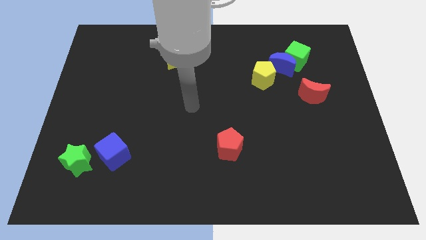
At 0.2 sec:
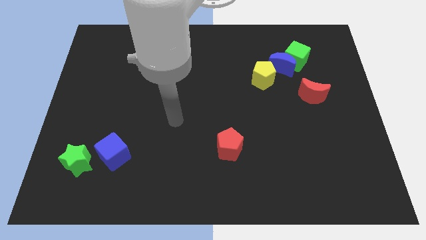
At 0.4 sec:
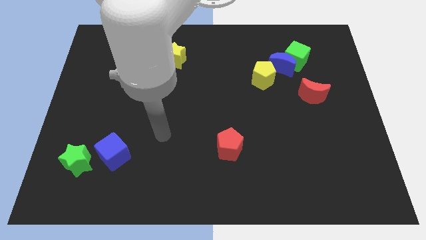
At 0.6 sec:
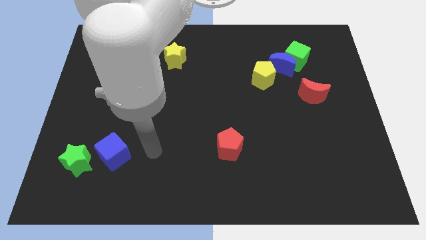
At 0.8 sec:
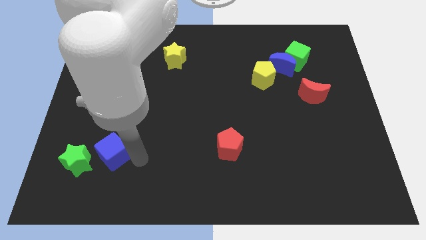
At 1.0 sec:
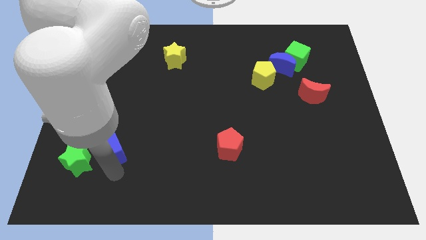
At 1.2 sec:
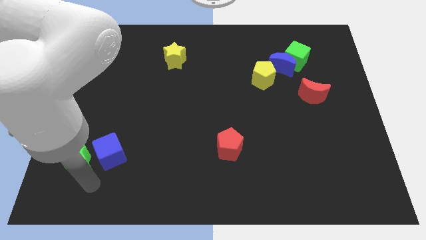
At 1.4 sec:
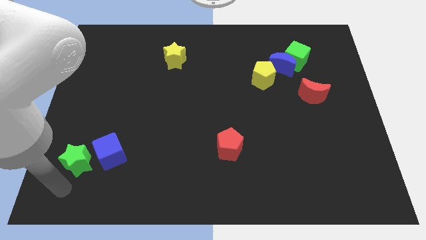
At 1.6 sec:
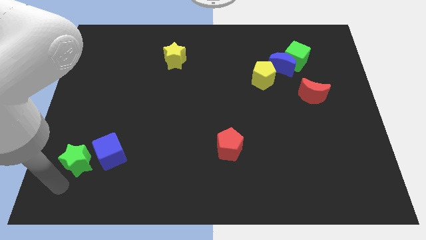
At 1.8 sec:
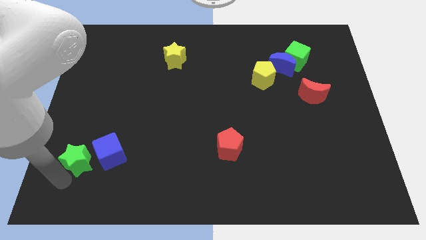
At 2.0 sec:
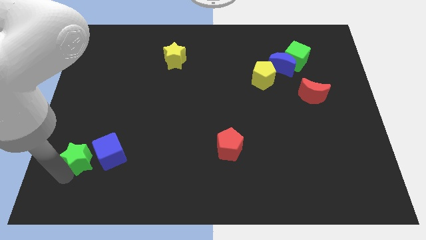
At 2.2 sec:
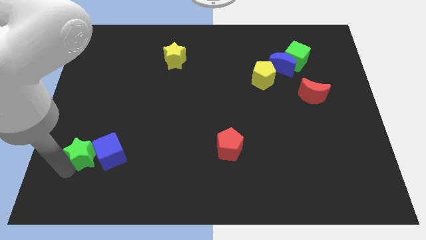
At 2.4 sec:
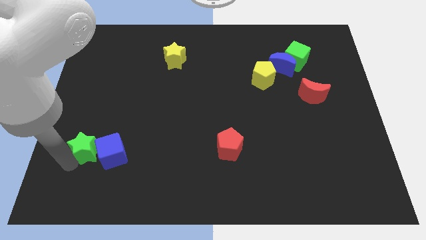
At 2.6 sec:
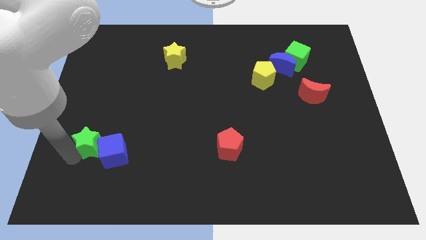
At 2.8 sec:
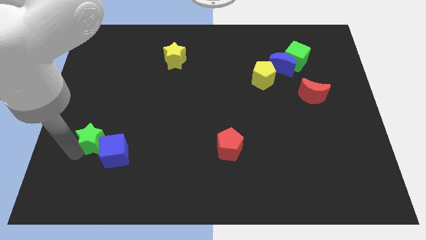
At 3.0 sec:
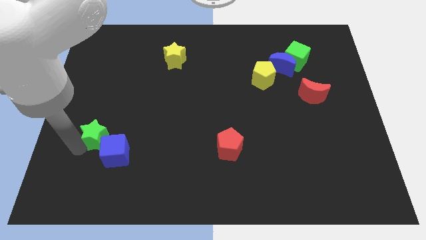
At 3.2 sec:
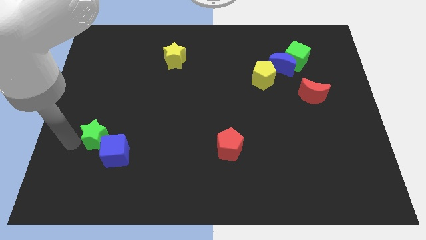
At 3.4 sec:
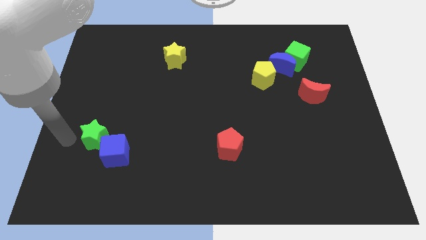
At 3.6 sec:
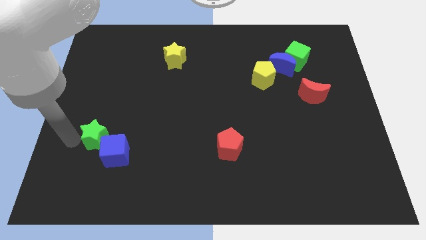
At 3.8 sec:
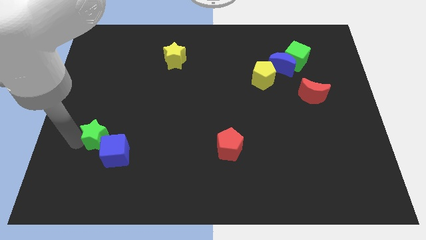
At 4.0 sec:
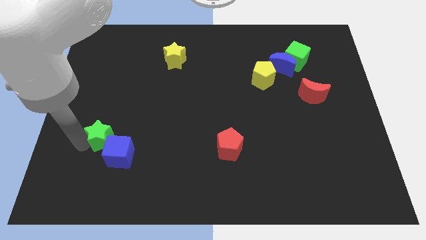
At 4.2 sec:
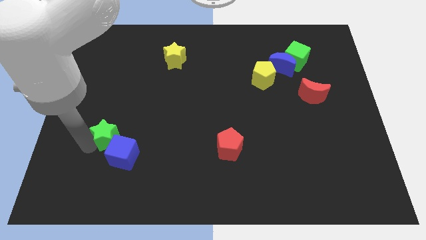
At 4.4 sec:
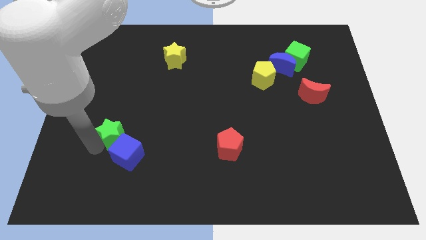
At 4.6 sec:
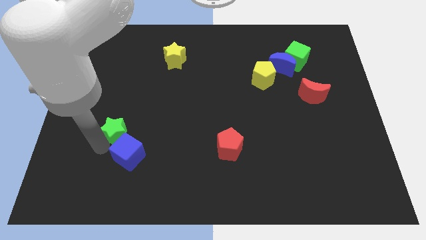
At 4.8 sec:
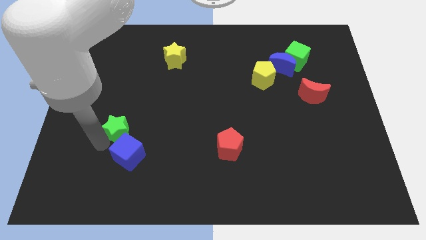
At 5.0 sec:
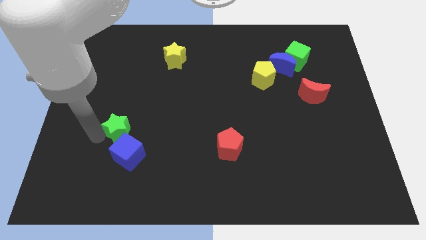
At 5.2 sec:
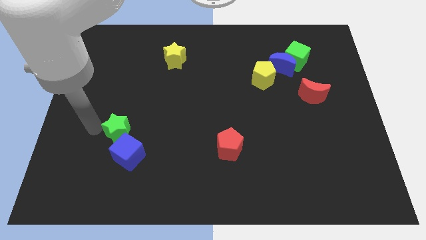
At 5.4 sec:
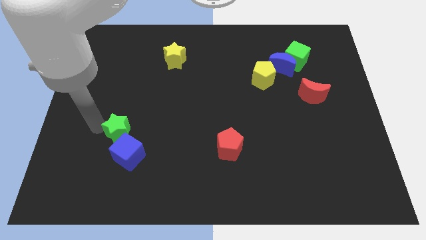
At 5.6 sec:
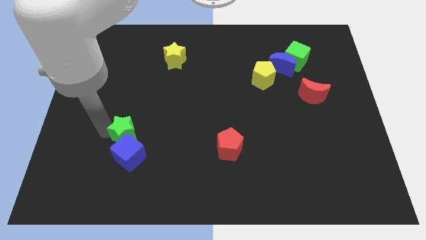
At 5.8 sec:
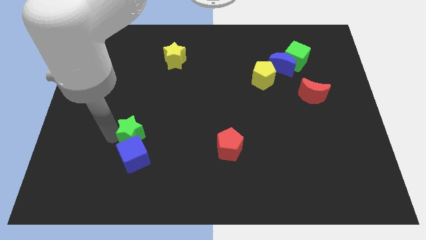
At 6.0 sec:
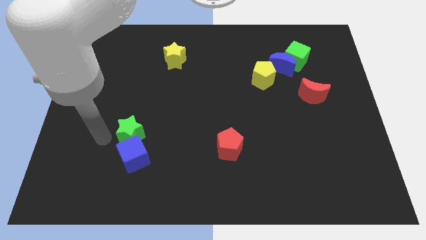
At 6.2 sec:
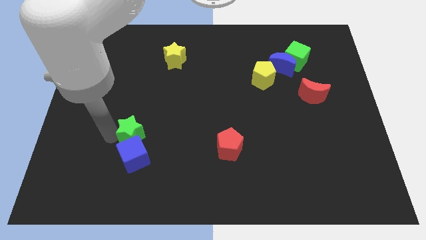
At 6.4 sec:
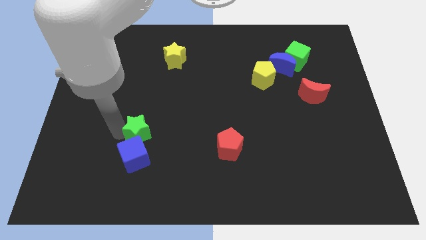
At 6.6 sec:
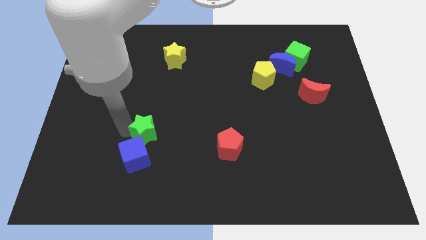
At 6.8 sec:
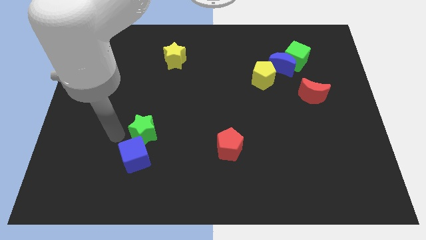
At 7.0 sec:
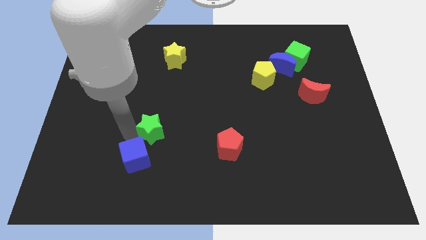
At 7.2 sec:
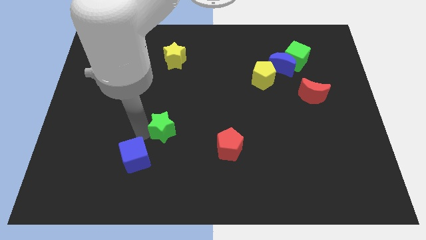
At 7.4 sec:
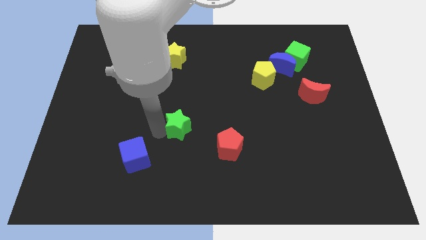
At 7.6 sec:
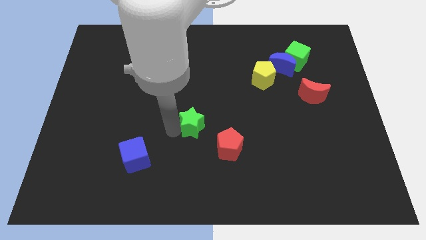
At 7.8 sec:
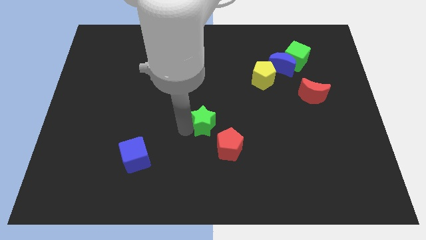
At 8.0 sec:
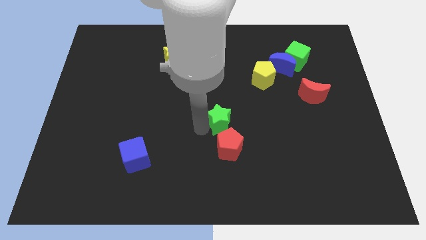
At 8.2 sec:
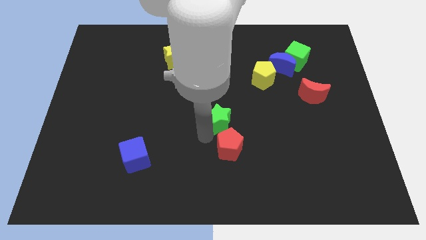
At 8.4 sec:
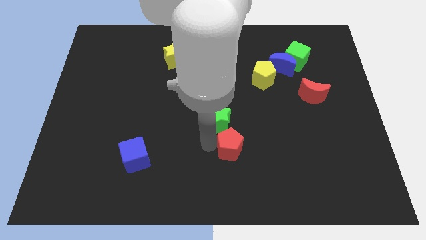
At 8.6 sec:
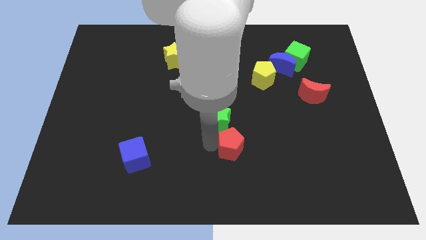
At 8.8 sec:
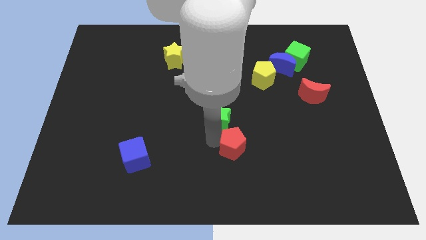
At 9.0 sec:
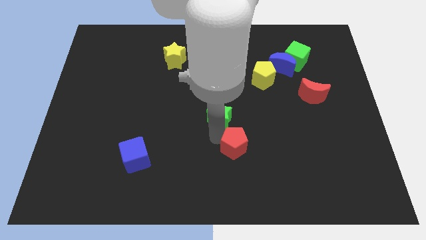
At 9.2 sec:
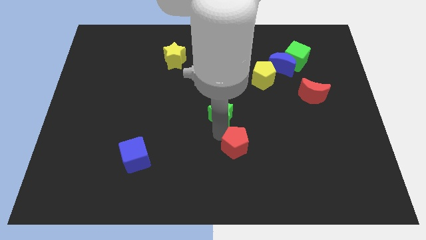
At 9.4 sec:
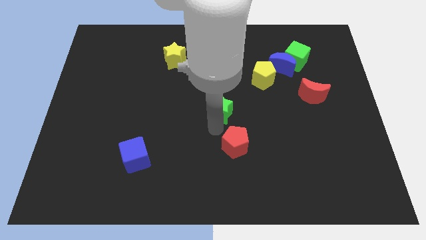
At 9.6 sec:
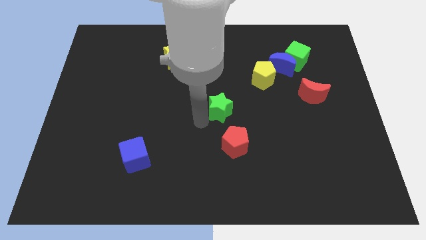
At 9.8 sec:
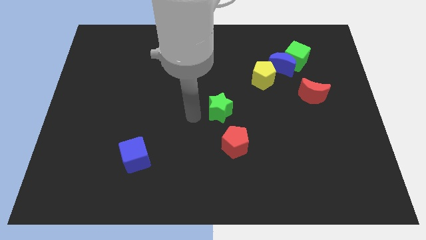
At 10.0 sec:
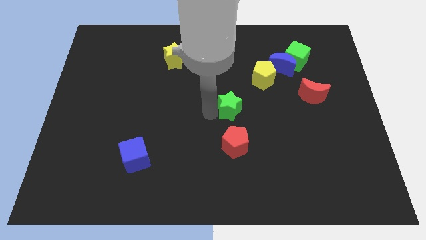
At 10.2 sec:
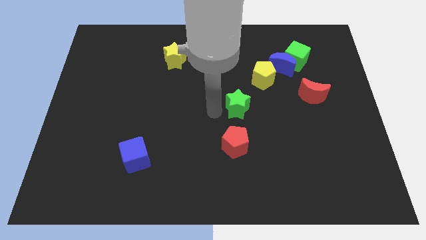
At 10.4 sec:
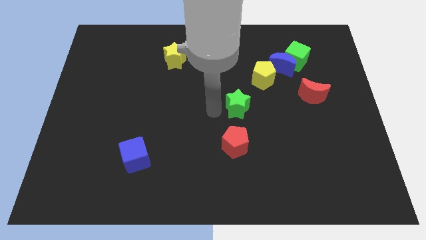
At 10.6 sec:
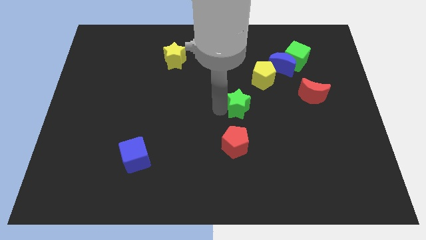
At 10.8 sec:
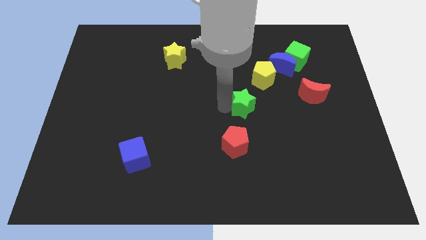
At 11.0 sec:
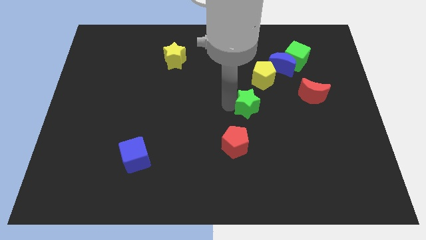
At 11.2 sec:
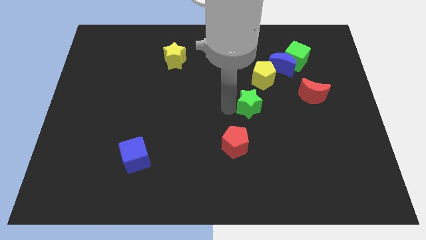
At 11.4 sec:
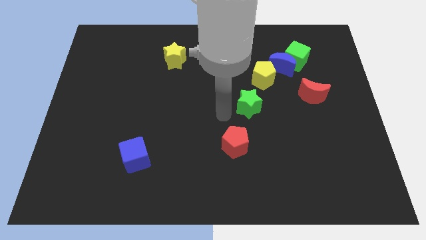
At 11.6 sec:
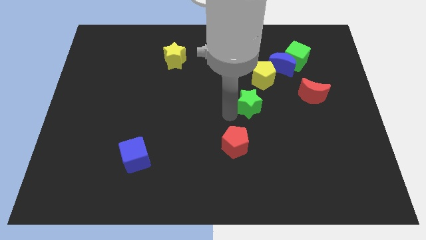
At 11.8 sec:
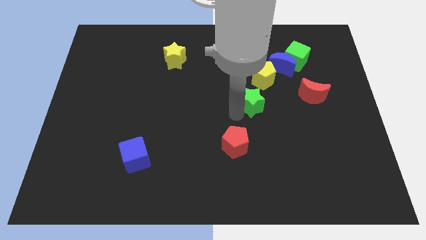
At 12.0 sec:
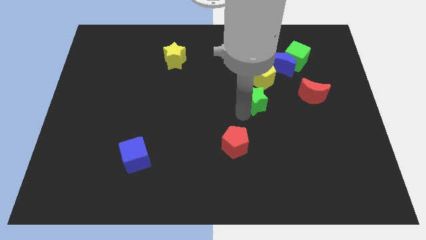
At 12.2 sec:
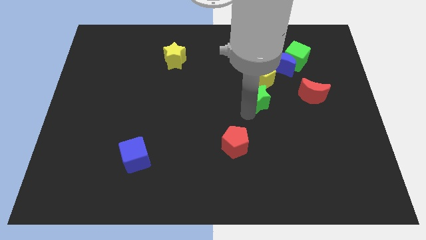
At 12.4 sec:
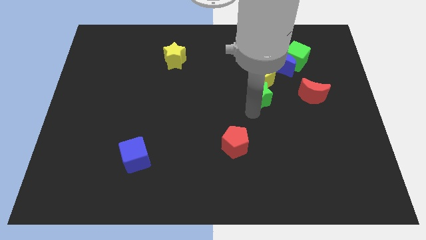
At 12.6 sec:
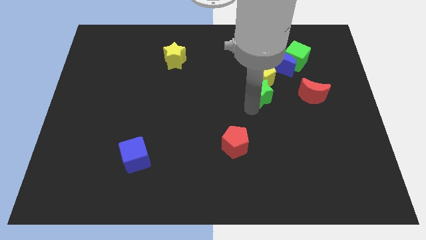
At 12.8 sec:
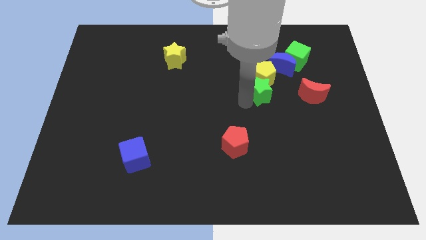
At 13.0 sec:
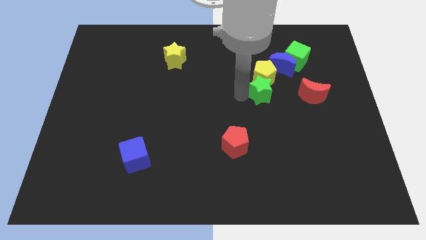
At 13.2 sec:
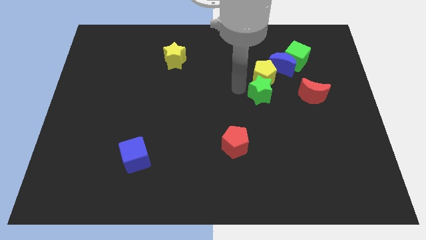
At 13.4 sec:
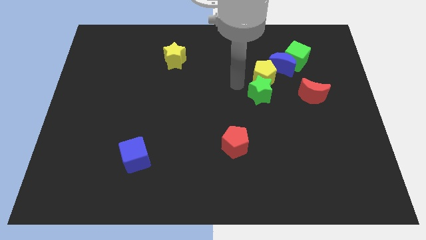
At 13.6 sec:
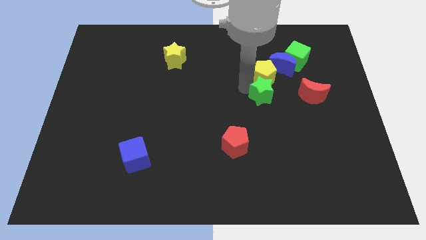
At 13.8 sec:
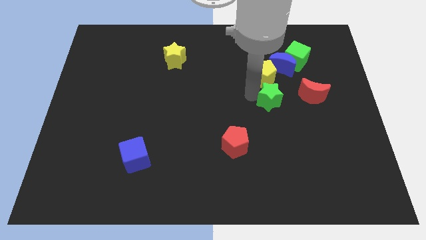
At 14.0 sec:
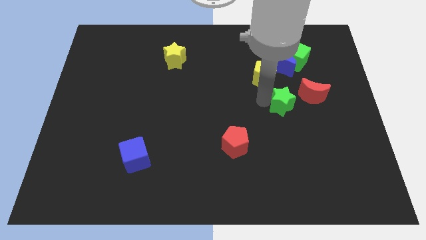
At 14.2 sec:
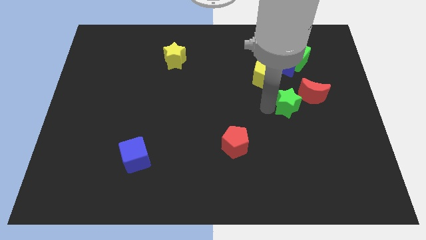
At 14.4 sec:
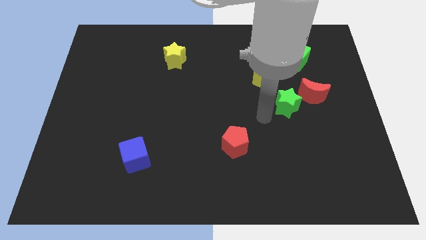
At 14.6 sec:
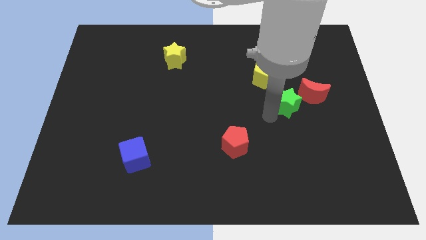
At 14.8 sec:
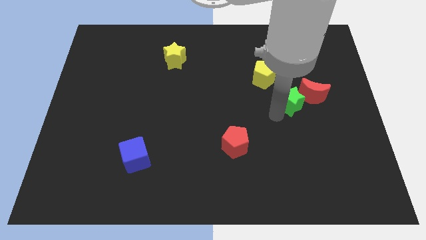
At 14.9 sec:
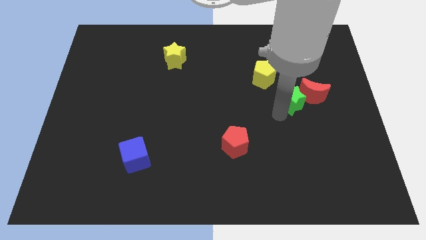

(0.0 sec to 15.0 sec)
put the green star to the red moon

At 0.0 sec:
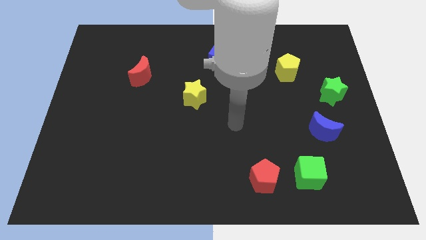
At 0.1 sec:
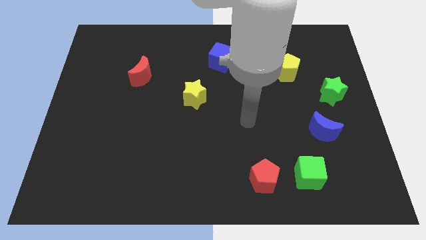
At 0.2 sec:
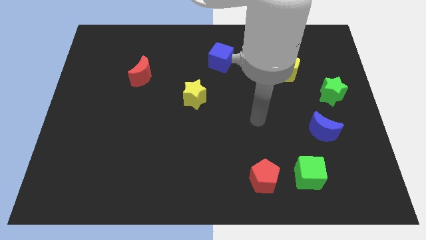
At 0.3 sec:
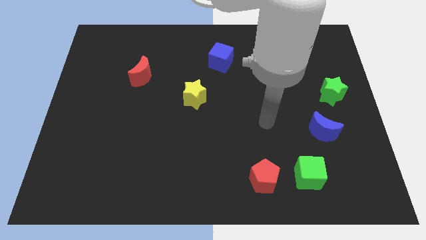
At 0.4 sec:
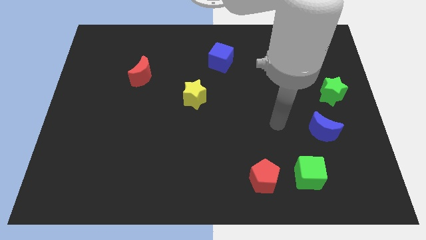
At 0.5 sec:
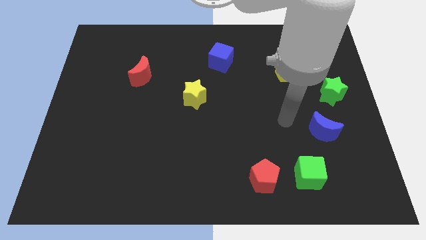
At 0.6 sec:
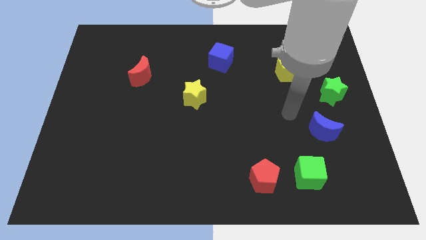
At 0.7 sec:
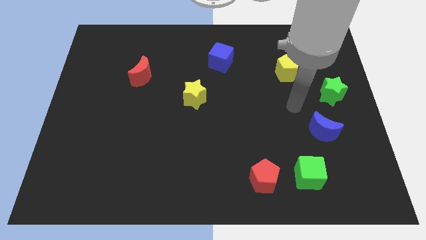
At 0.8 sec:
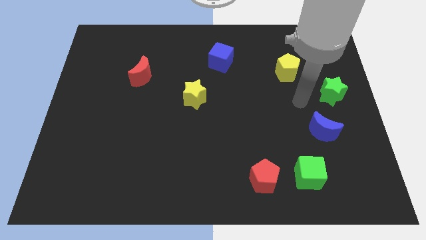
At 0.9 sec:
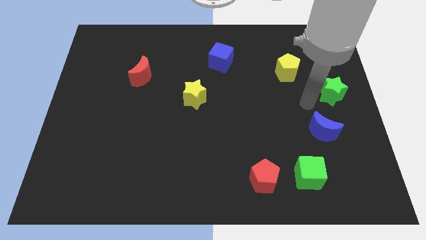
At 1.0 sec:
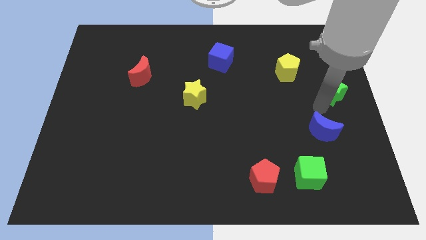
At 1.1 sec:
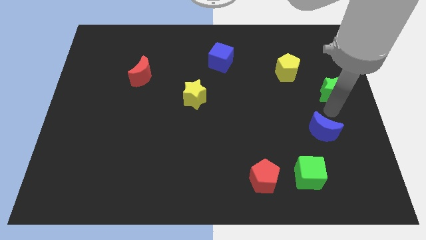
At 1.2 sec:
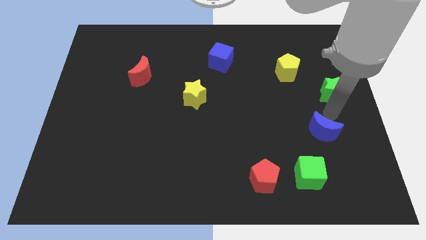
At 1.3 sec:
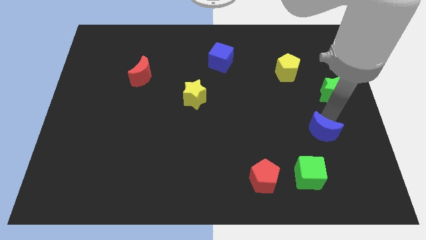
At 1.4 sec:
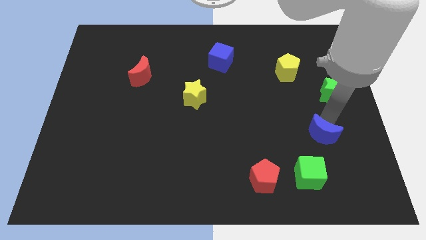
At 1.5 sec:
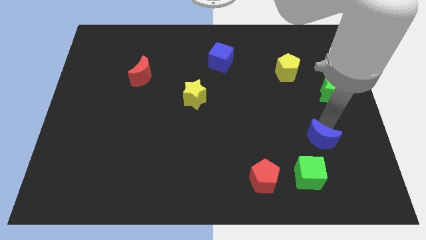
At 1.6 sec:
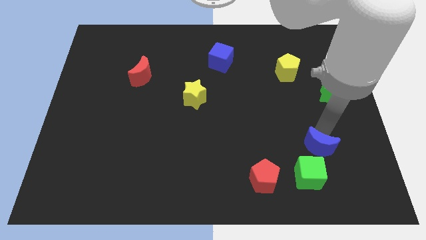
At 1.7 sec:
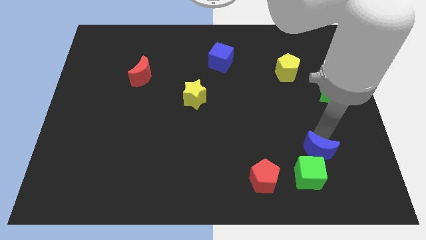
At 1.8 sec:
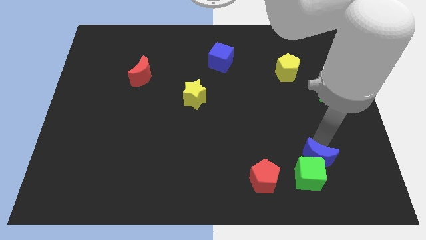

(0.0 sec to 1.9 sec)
slide the blue moon next to the green cube
